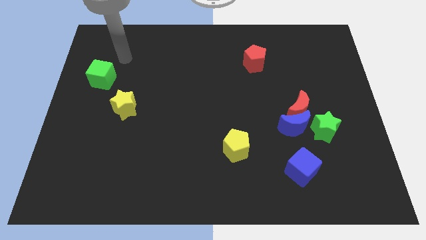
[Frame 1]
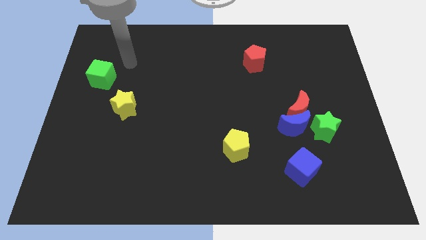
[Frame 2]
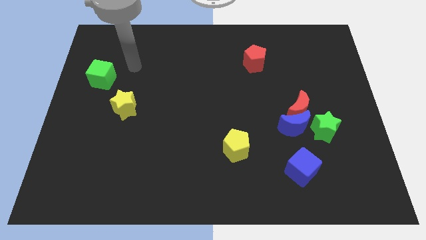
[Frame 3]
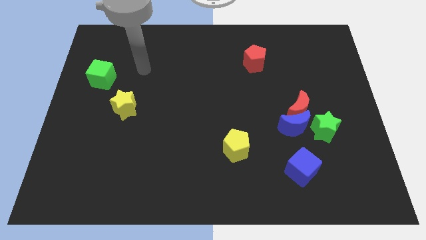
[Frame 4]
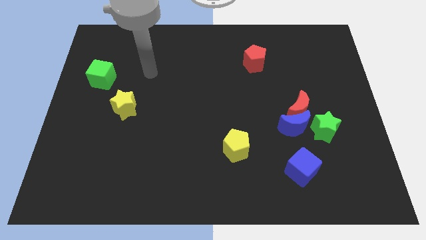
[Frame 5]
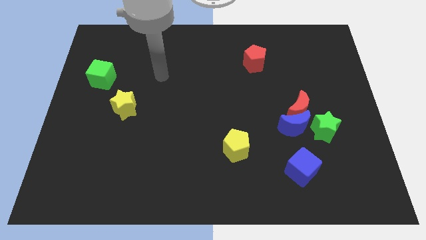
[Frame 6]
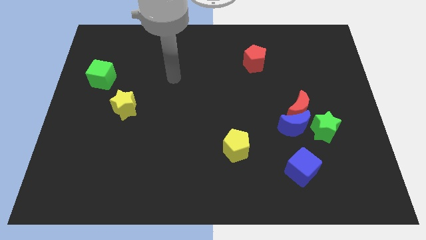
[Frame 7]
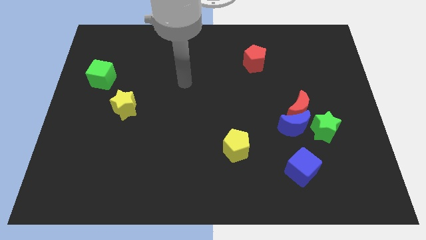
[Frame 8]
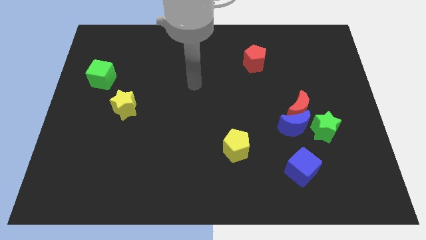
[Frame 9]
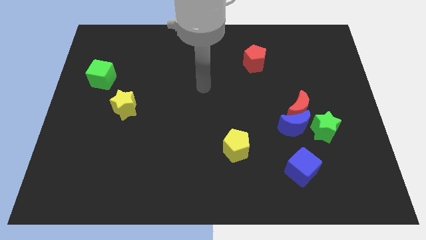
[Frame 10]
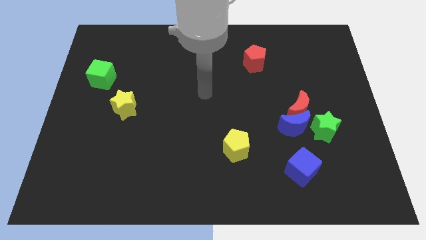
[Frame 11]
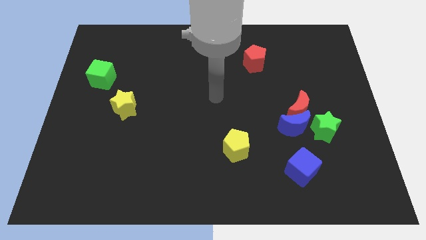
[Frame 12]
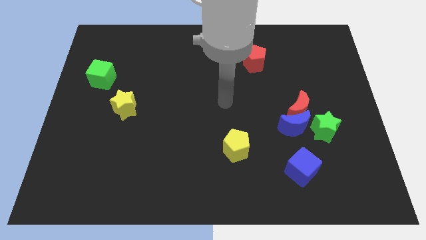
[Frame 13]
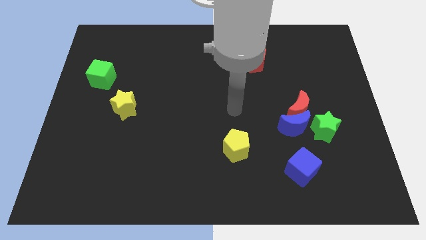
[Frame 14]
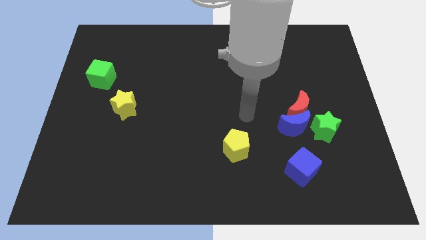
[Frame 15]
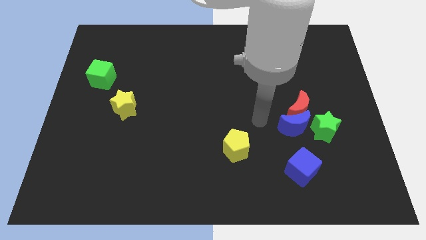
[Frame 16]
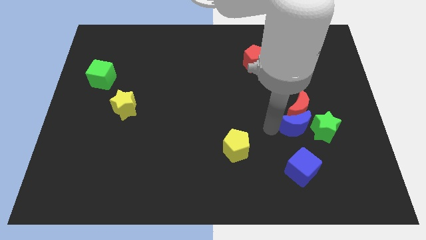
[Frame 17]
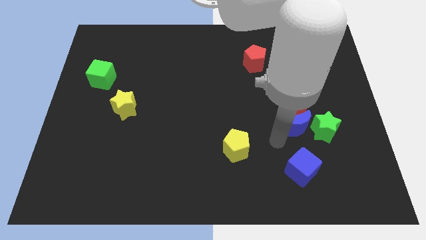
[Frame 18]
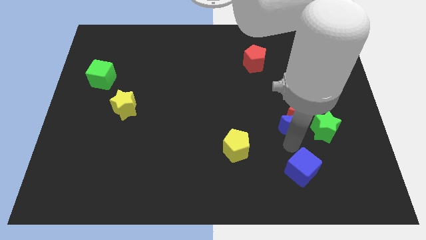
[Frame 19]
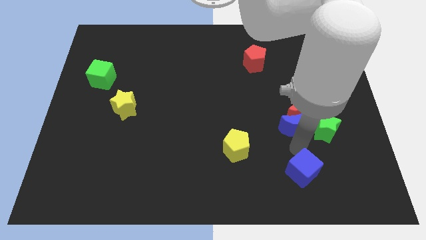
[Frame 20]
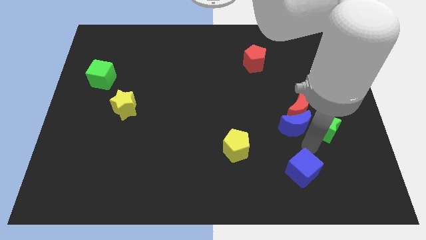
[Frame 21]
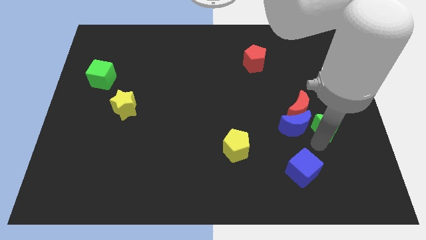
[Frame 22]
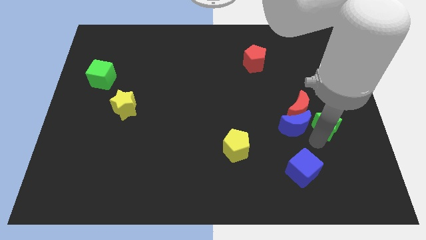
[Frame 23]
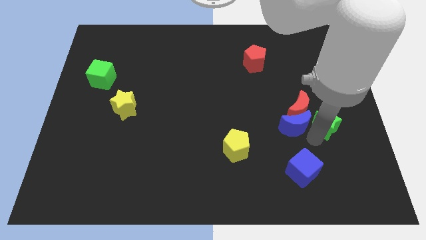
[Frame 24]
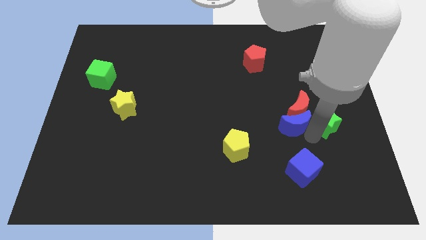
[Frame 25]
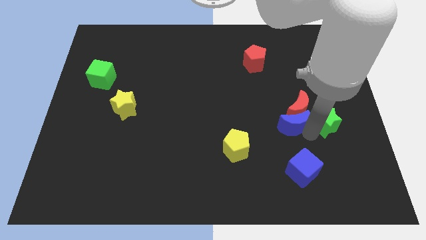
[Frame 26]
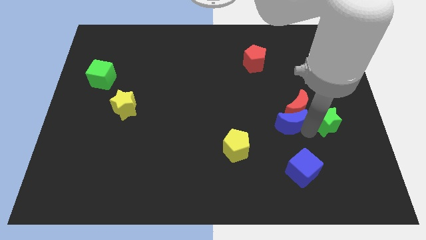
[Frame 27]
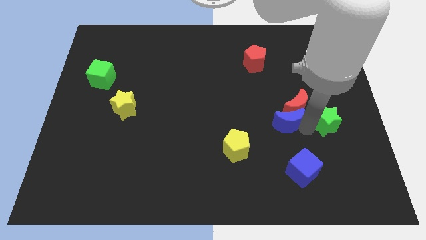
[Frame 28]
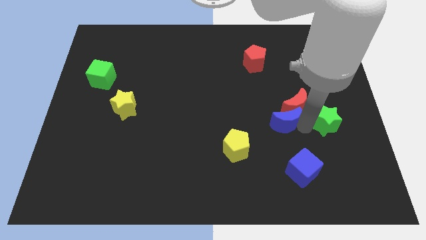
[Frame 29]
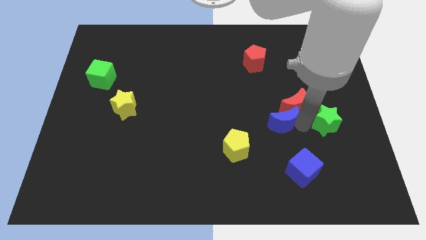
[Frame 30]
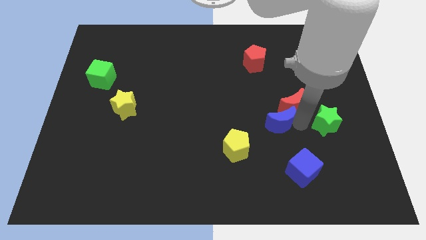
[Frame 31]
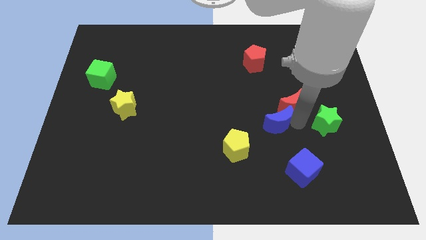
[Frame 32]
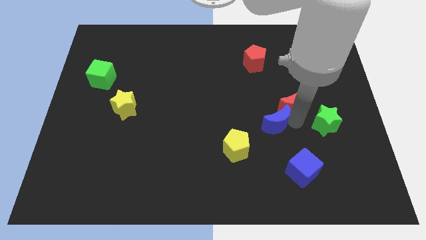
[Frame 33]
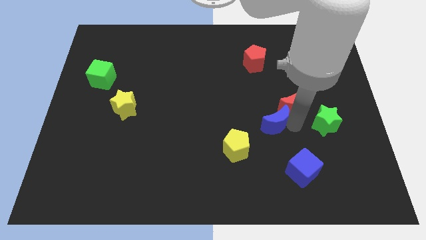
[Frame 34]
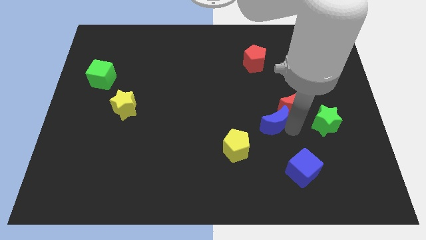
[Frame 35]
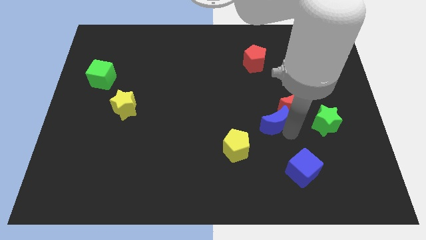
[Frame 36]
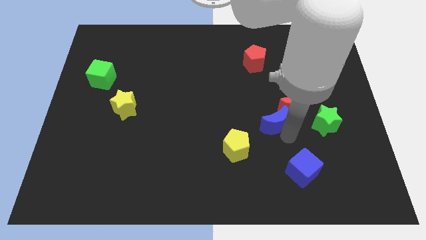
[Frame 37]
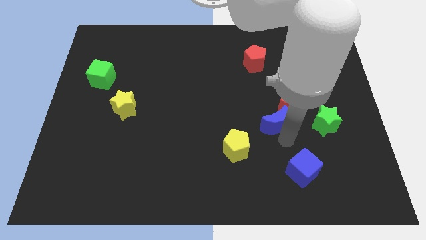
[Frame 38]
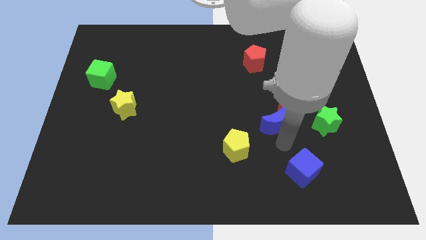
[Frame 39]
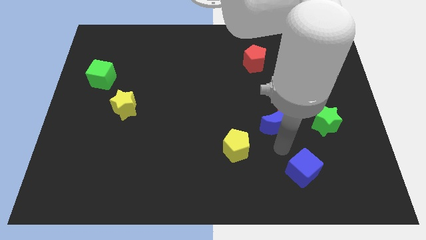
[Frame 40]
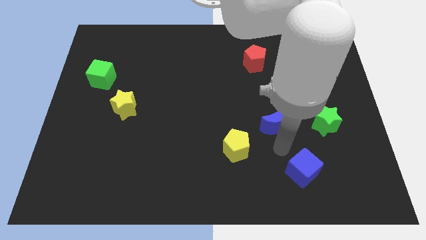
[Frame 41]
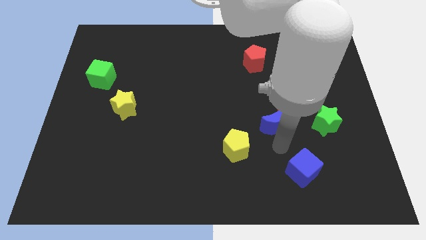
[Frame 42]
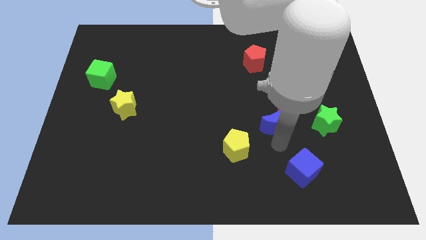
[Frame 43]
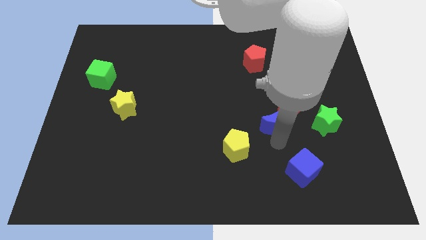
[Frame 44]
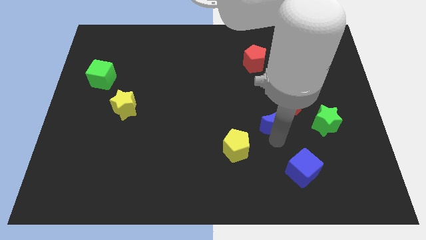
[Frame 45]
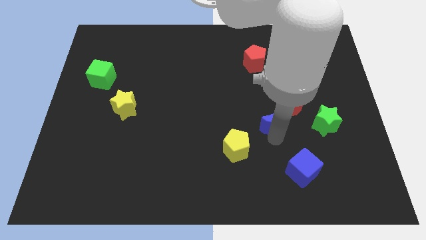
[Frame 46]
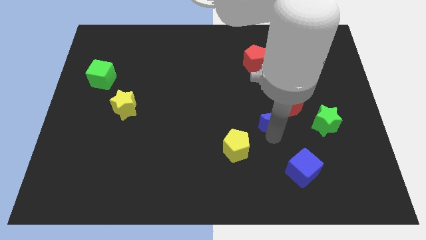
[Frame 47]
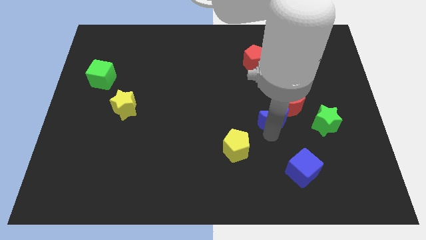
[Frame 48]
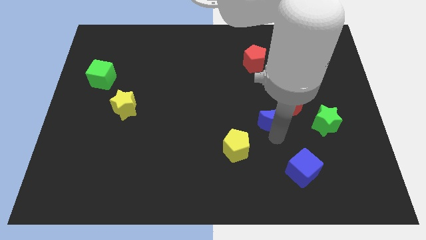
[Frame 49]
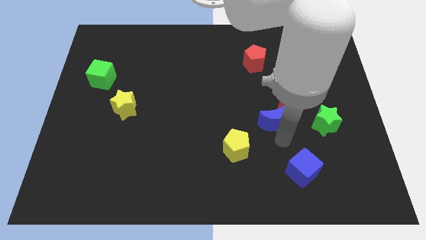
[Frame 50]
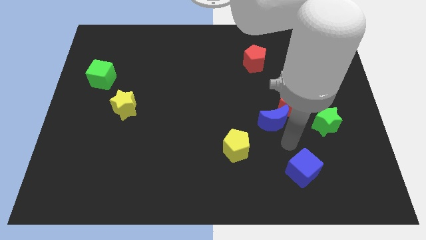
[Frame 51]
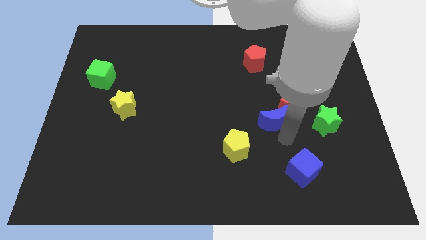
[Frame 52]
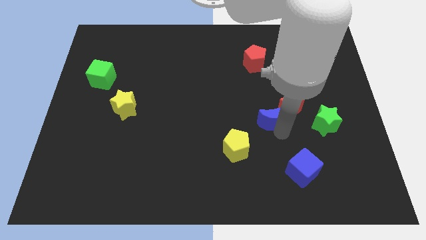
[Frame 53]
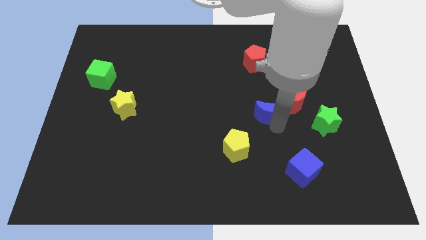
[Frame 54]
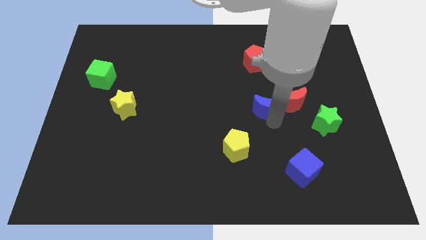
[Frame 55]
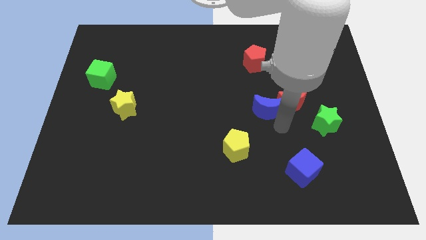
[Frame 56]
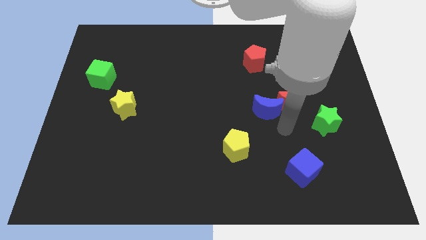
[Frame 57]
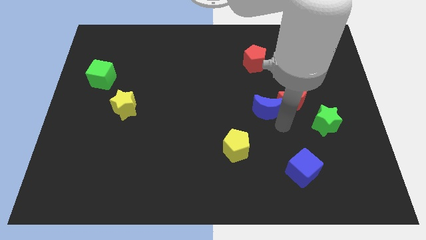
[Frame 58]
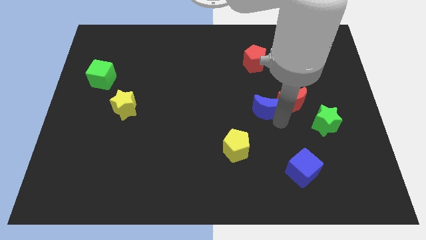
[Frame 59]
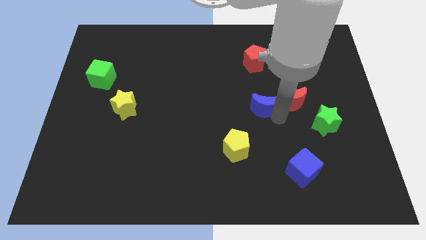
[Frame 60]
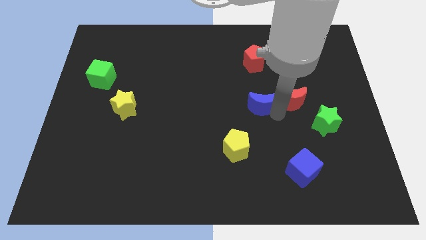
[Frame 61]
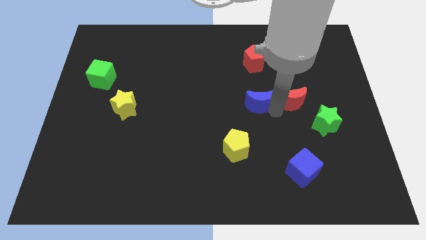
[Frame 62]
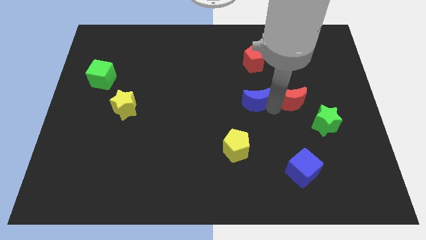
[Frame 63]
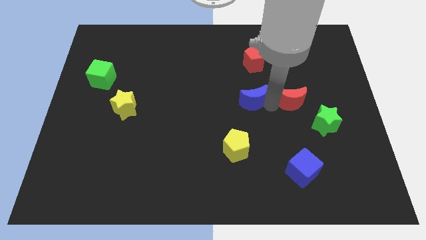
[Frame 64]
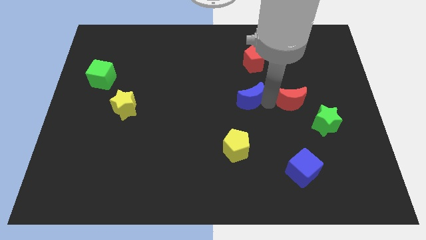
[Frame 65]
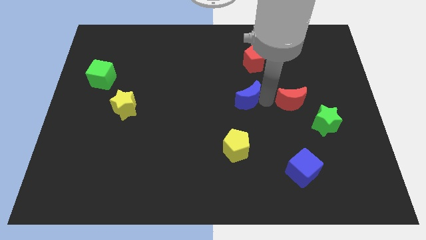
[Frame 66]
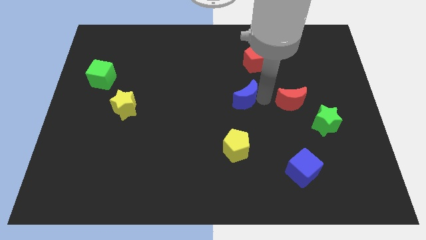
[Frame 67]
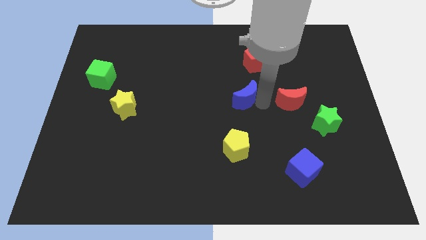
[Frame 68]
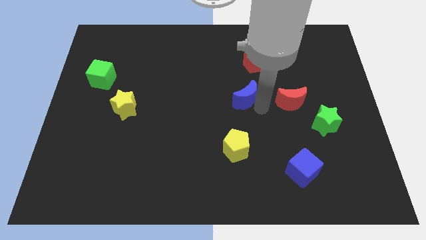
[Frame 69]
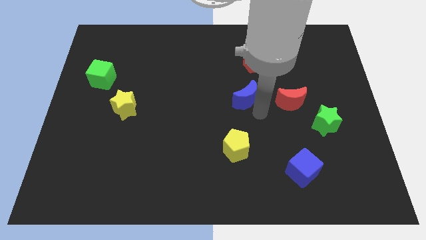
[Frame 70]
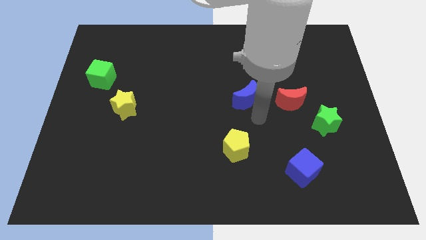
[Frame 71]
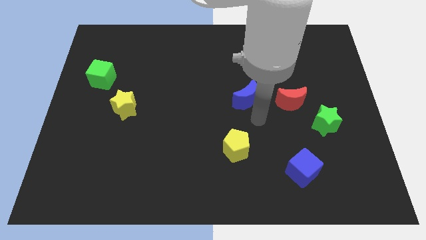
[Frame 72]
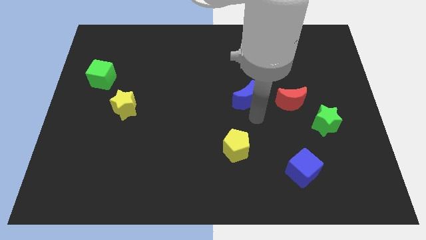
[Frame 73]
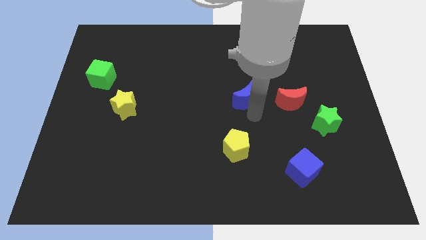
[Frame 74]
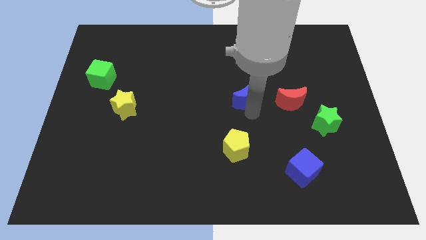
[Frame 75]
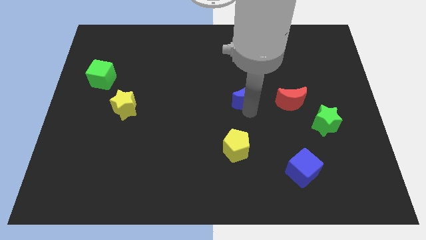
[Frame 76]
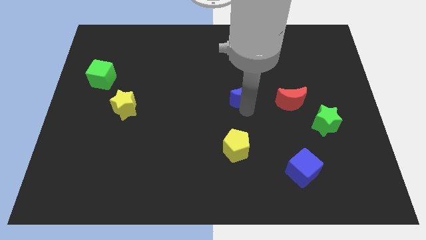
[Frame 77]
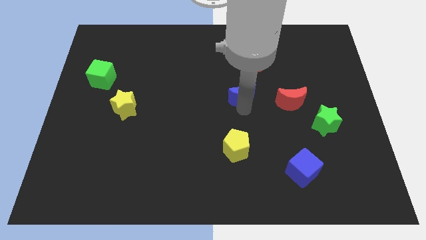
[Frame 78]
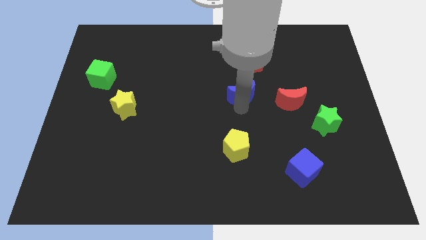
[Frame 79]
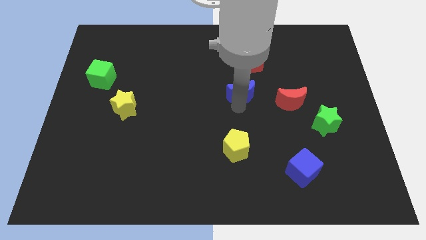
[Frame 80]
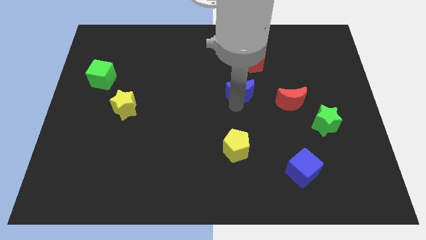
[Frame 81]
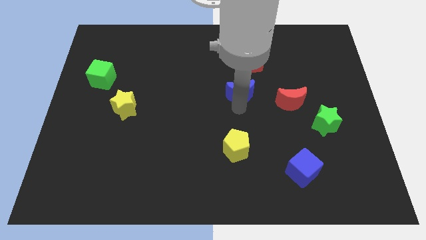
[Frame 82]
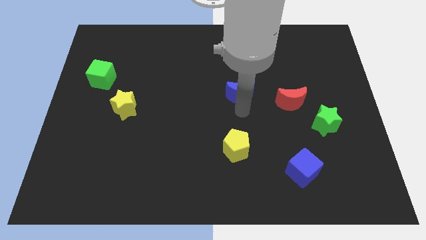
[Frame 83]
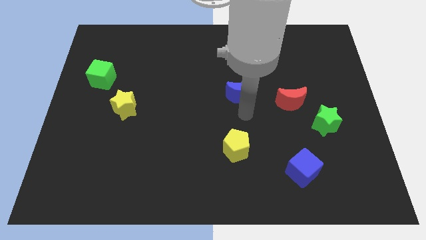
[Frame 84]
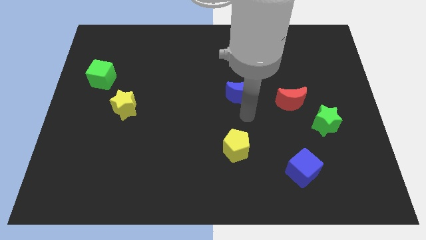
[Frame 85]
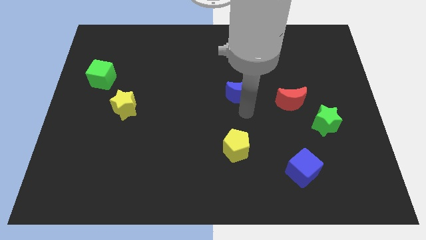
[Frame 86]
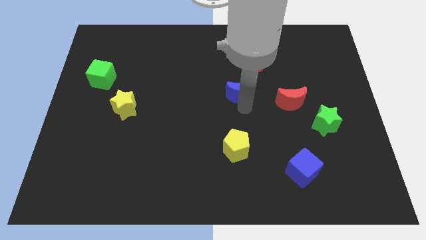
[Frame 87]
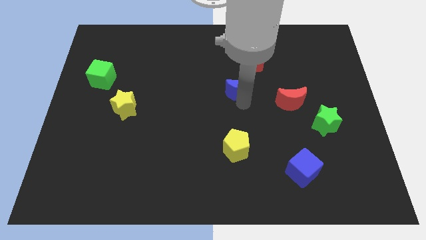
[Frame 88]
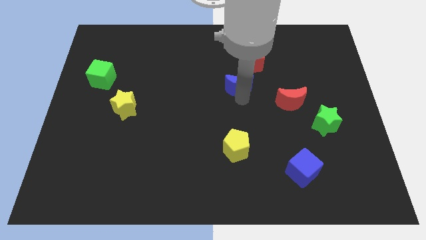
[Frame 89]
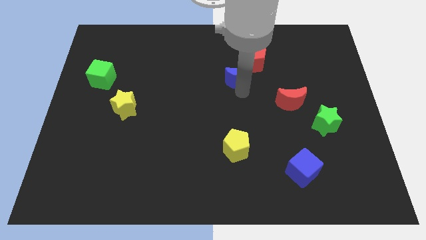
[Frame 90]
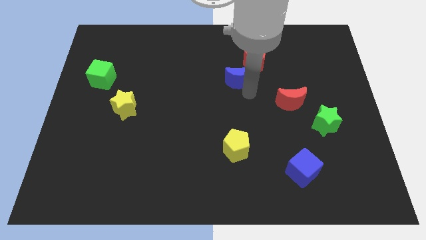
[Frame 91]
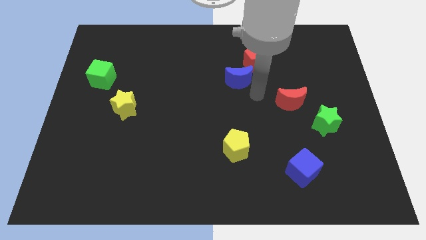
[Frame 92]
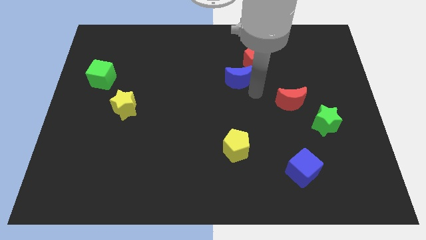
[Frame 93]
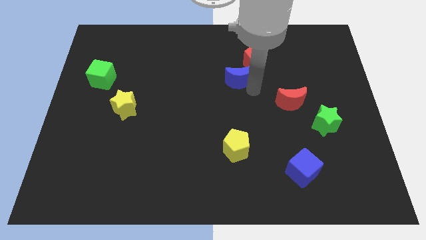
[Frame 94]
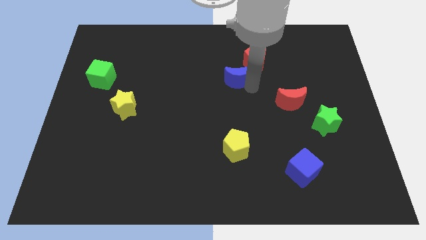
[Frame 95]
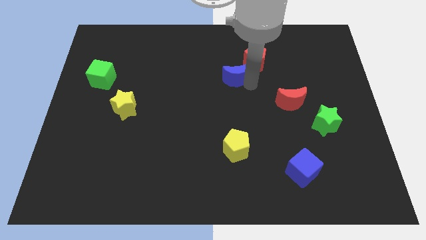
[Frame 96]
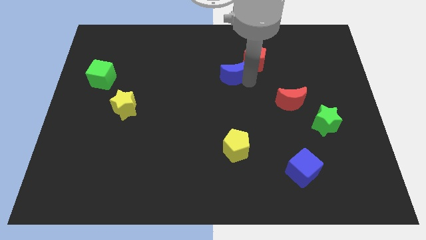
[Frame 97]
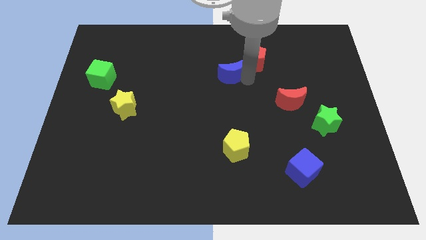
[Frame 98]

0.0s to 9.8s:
slide the blue moon left of the red pentagon
